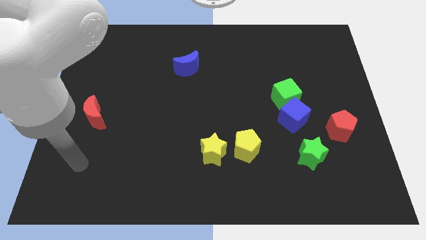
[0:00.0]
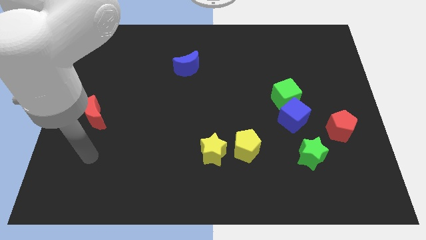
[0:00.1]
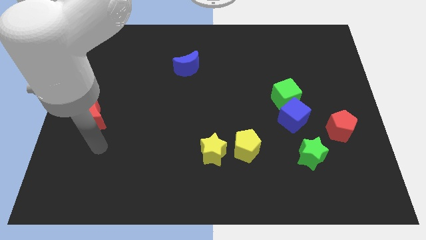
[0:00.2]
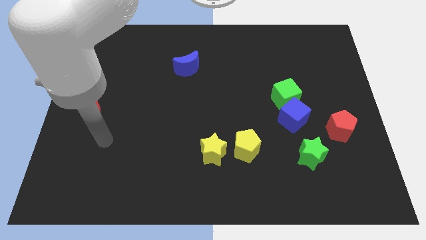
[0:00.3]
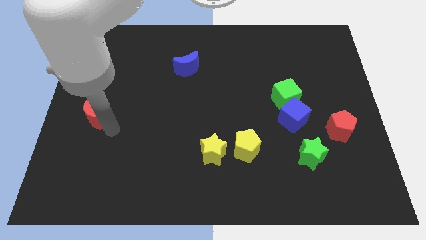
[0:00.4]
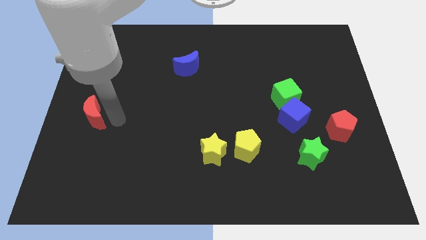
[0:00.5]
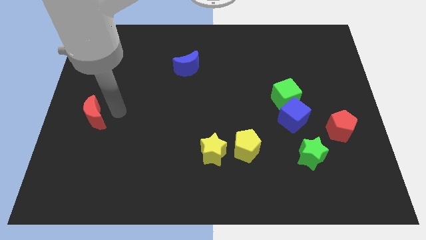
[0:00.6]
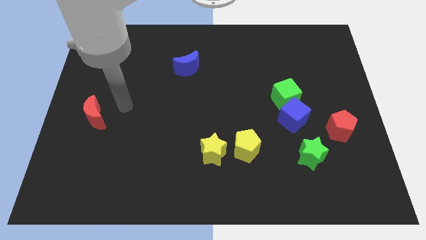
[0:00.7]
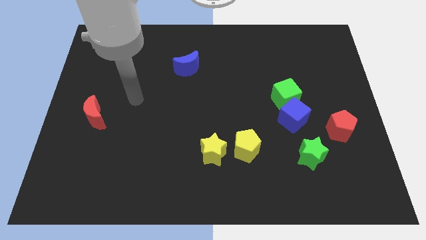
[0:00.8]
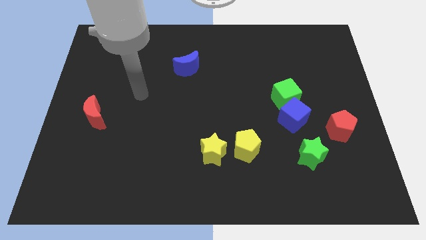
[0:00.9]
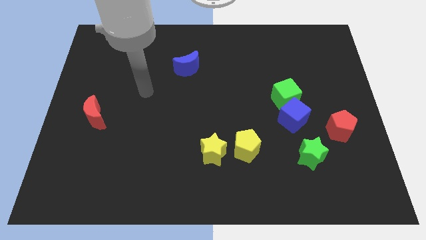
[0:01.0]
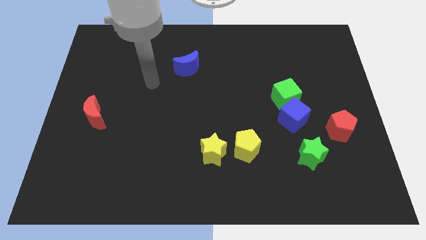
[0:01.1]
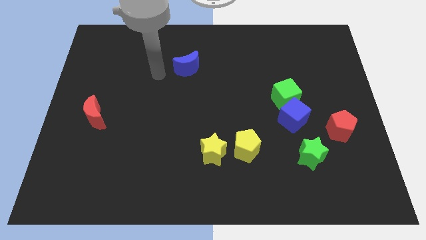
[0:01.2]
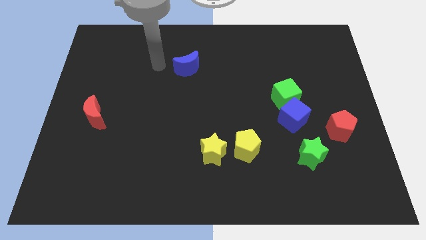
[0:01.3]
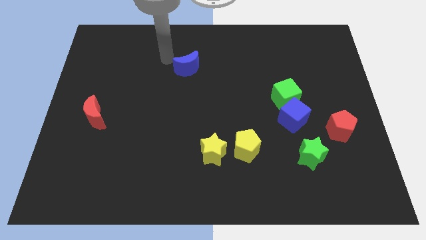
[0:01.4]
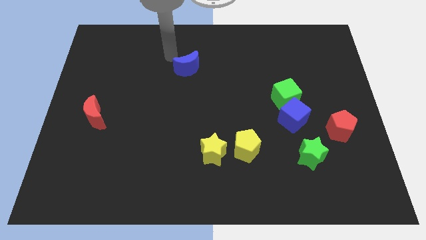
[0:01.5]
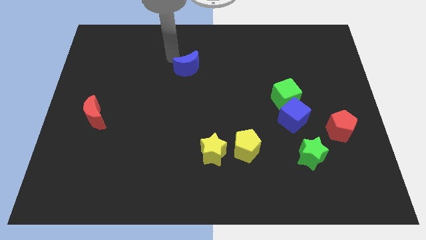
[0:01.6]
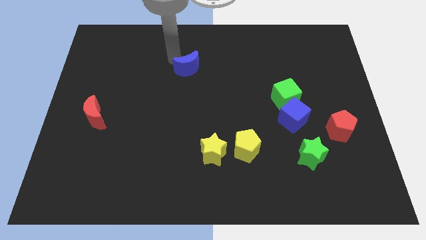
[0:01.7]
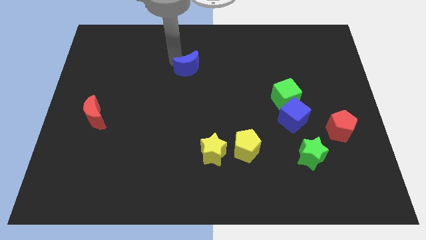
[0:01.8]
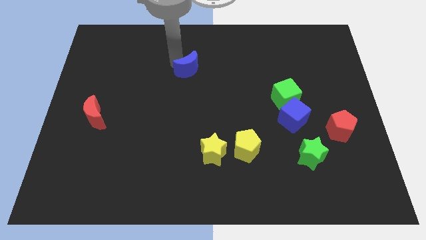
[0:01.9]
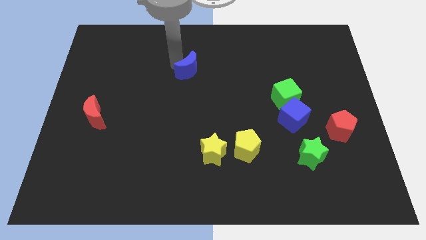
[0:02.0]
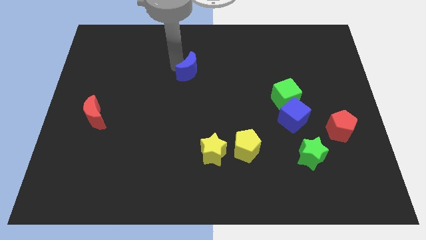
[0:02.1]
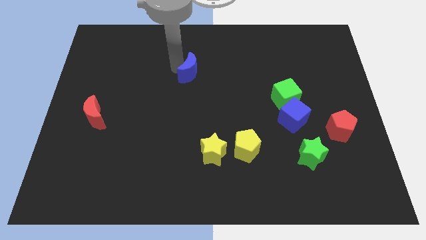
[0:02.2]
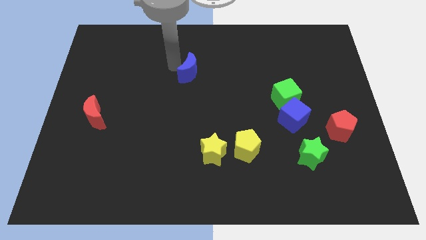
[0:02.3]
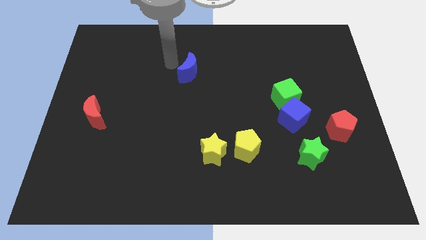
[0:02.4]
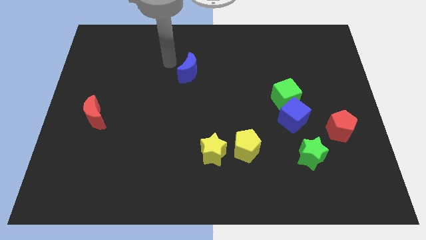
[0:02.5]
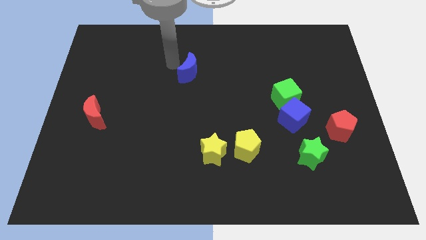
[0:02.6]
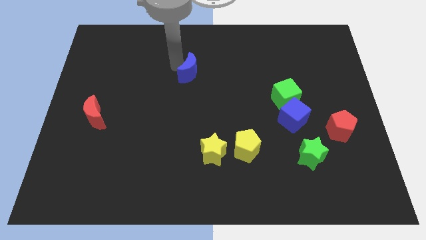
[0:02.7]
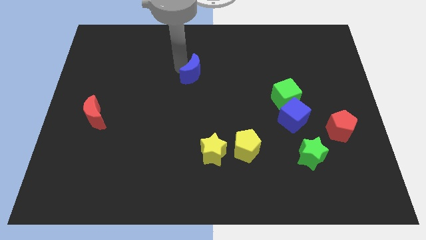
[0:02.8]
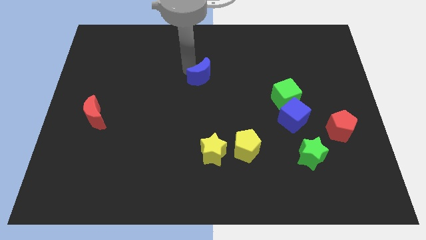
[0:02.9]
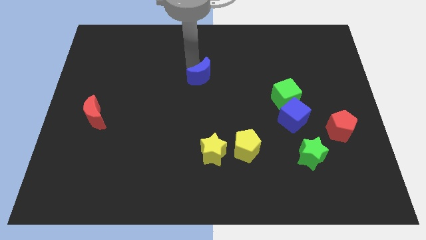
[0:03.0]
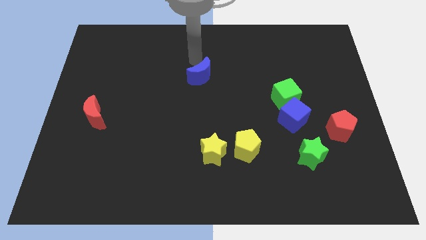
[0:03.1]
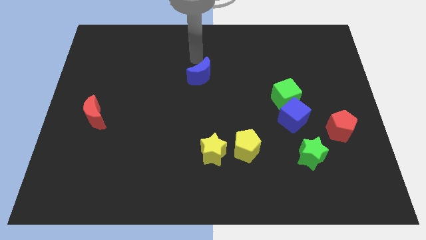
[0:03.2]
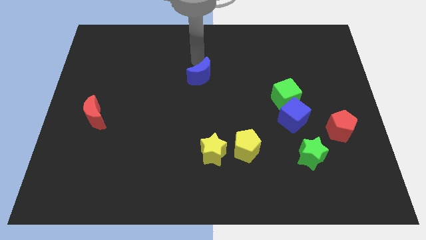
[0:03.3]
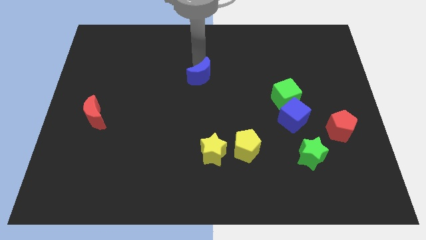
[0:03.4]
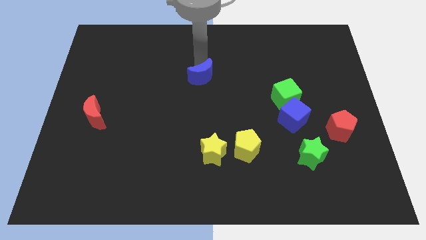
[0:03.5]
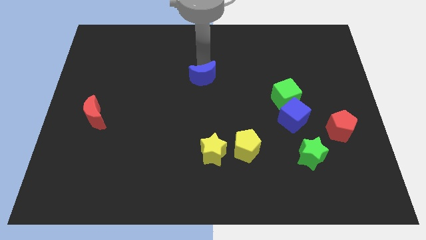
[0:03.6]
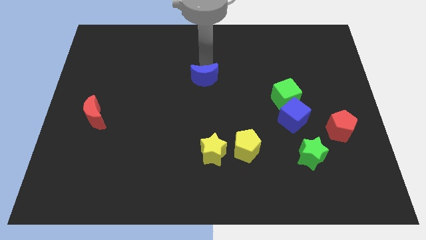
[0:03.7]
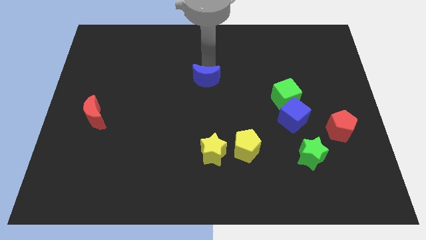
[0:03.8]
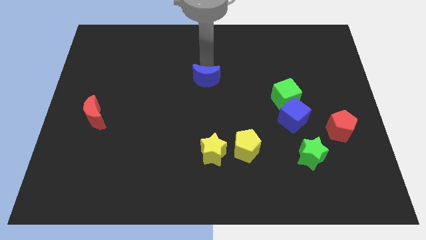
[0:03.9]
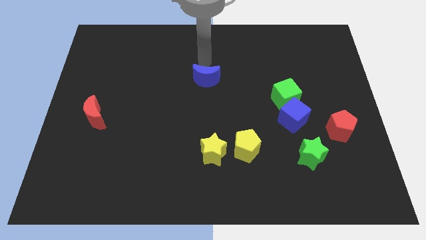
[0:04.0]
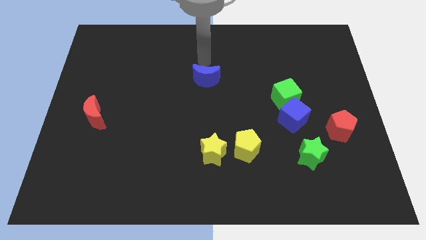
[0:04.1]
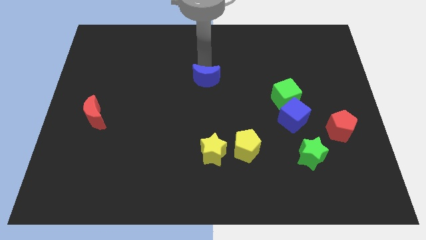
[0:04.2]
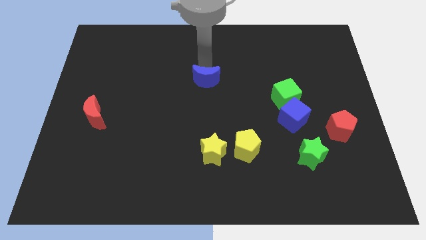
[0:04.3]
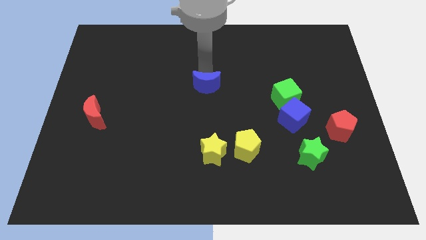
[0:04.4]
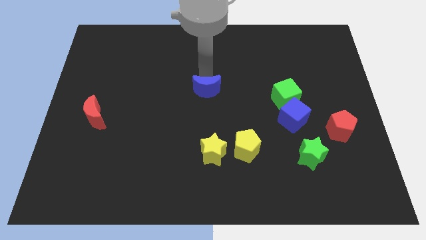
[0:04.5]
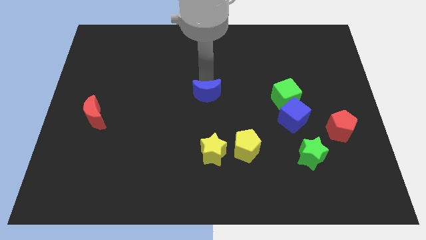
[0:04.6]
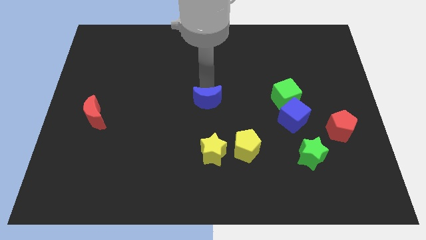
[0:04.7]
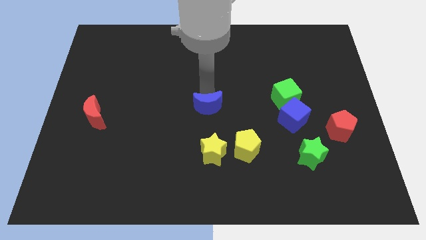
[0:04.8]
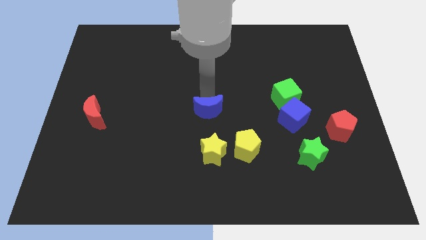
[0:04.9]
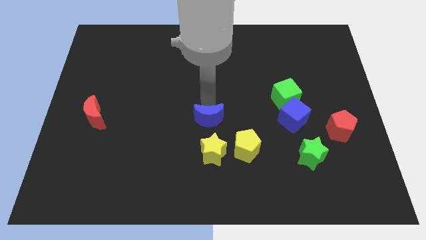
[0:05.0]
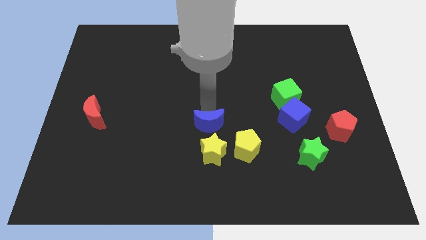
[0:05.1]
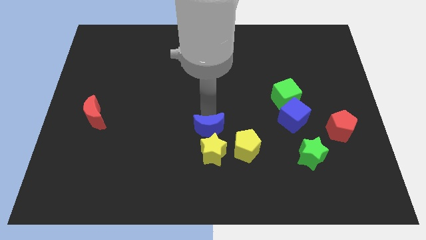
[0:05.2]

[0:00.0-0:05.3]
move the blue moon next to the yellow star

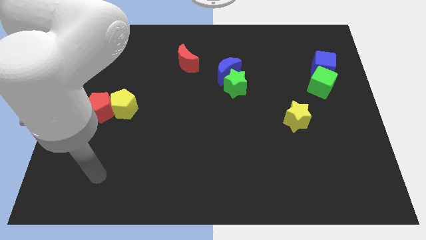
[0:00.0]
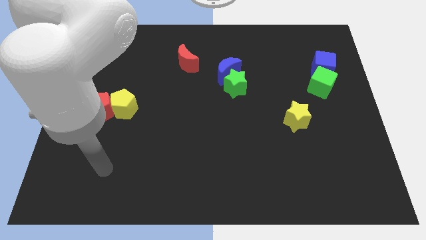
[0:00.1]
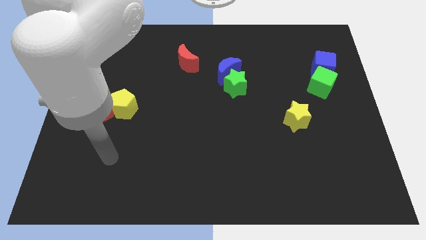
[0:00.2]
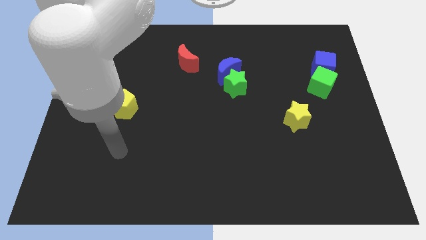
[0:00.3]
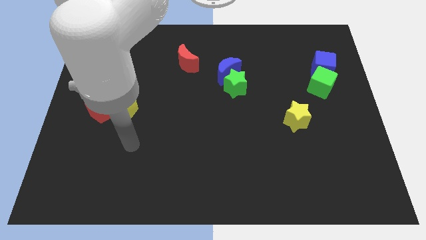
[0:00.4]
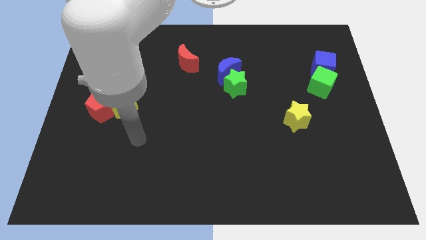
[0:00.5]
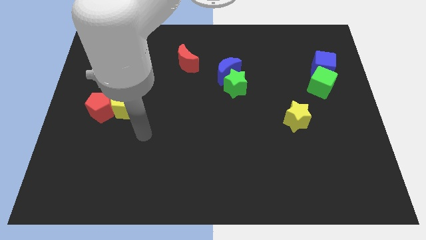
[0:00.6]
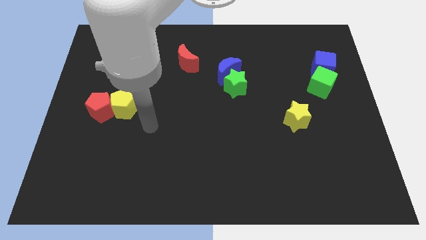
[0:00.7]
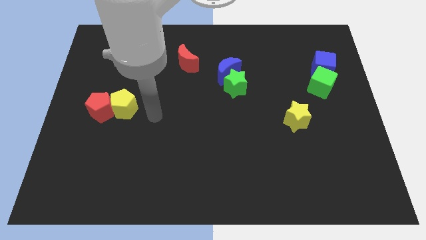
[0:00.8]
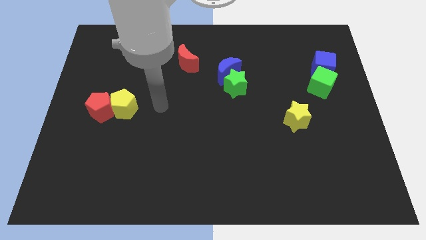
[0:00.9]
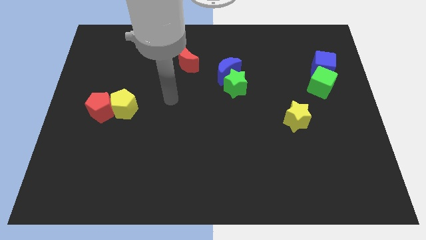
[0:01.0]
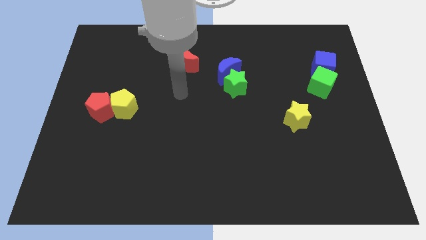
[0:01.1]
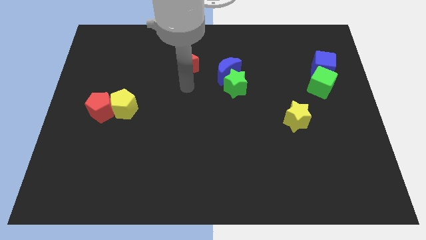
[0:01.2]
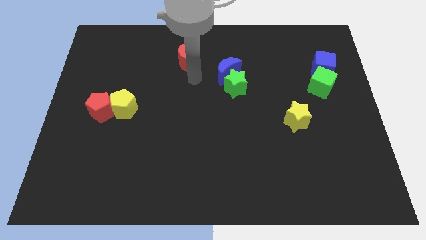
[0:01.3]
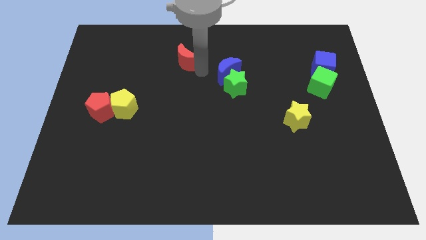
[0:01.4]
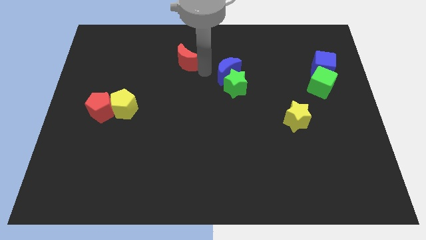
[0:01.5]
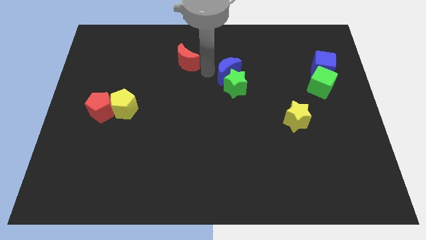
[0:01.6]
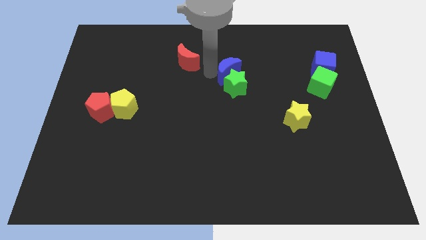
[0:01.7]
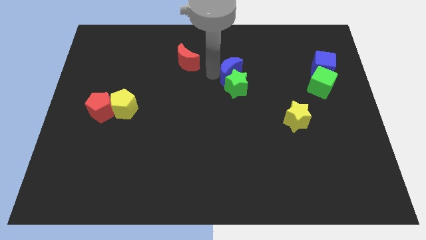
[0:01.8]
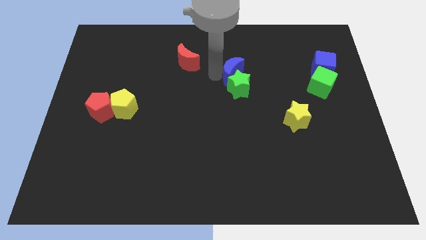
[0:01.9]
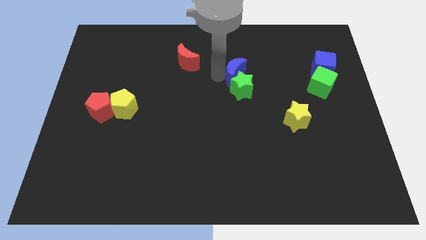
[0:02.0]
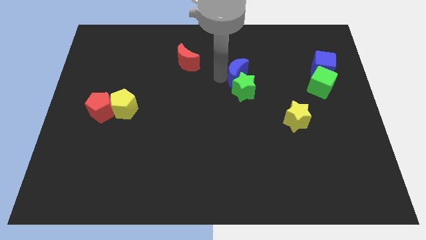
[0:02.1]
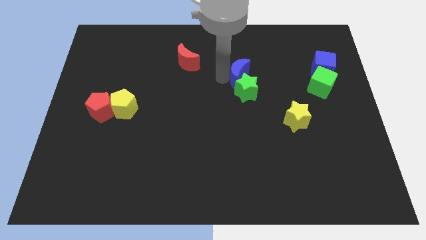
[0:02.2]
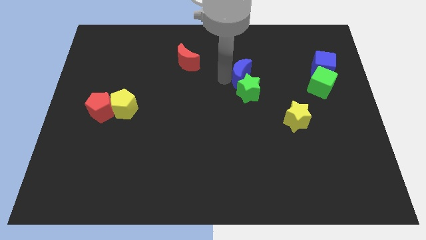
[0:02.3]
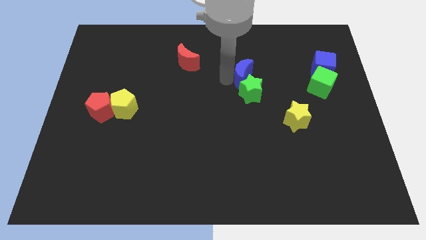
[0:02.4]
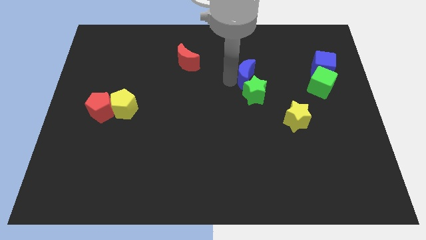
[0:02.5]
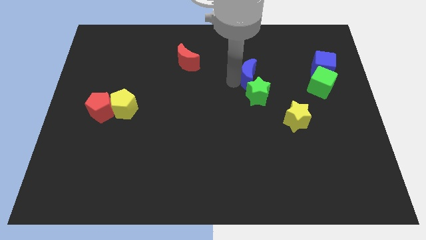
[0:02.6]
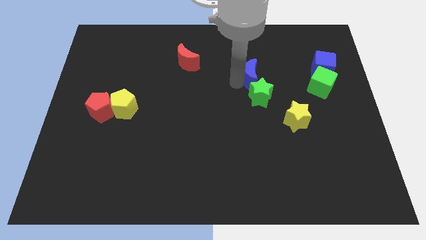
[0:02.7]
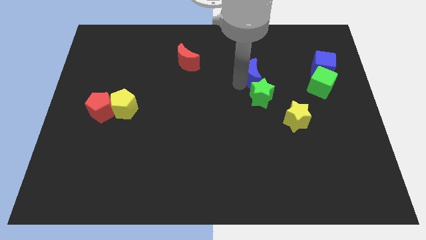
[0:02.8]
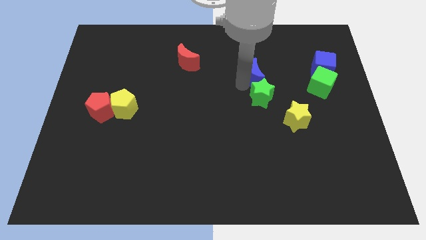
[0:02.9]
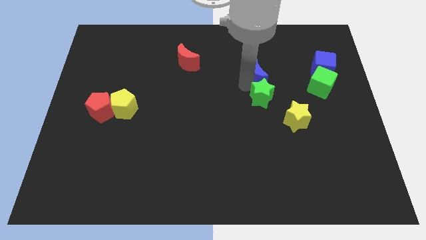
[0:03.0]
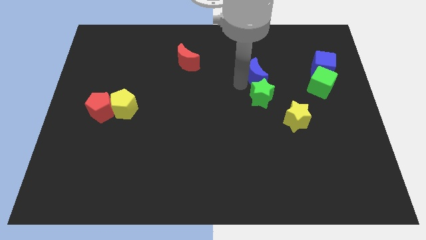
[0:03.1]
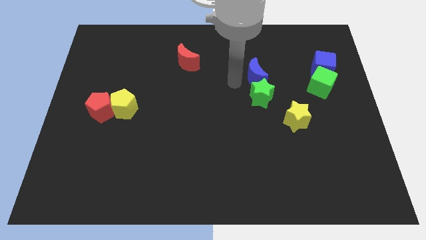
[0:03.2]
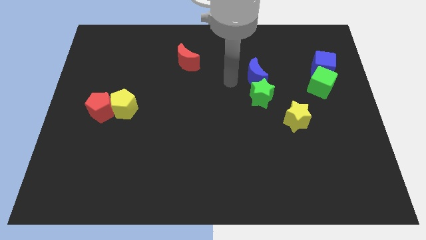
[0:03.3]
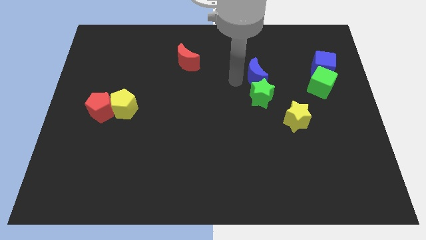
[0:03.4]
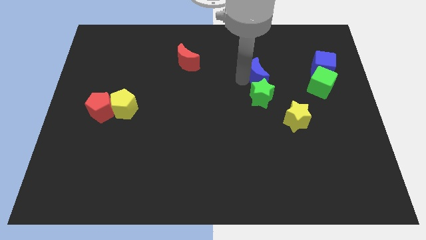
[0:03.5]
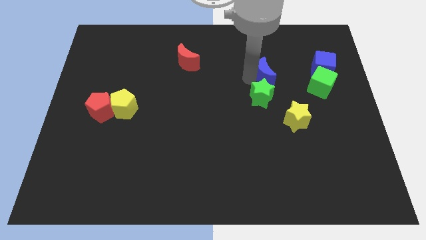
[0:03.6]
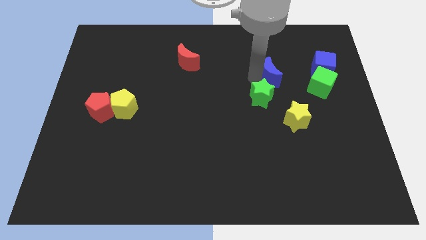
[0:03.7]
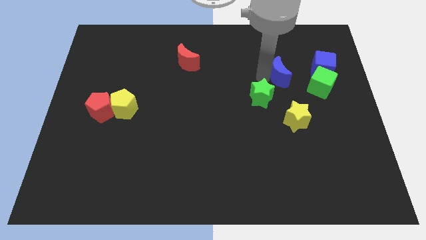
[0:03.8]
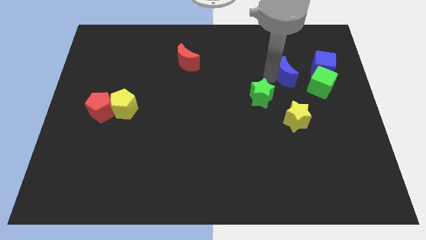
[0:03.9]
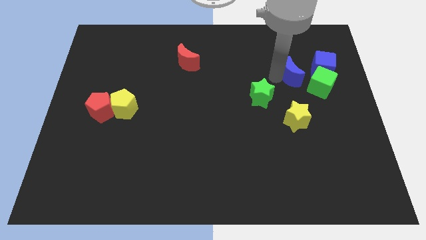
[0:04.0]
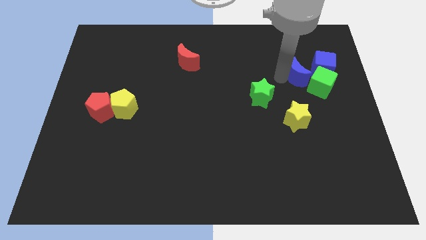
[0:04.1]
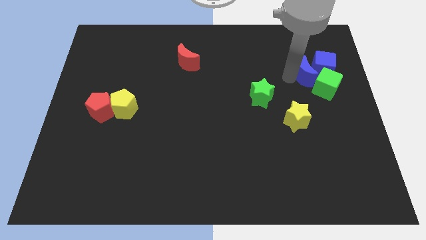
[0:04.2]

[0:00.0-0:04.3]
put the blue moon next to the blue cube
